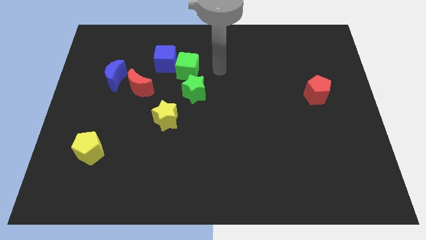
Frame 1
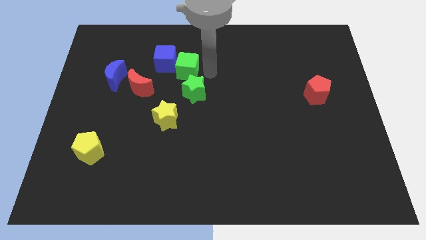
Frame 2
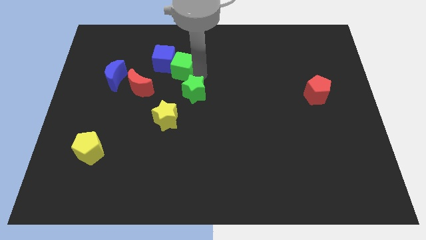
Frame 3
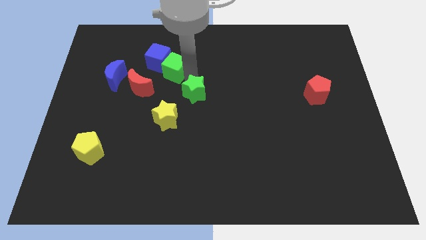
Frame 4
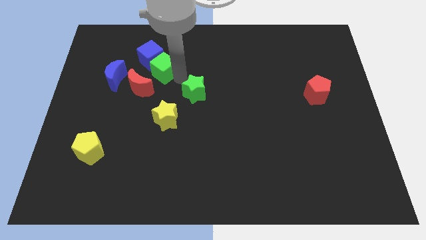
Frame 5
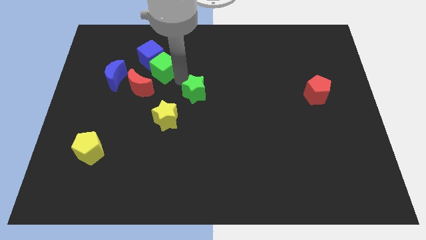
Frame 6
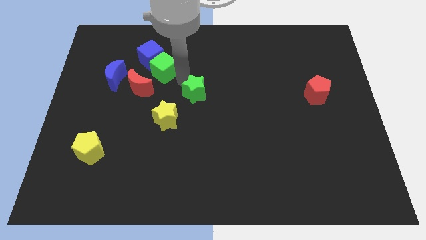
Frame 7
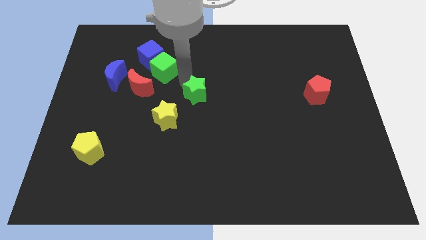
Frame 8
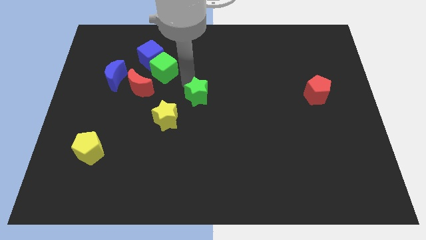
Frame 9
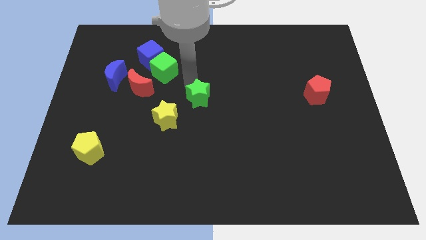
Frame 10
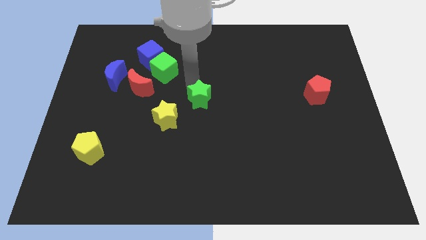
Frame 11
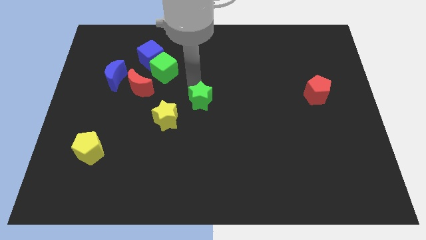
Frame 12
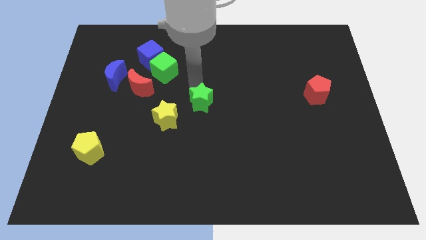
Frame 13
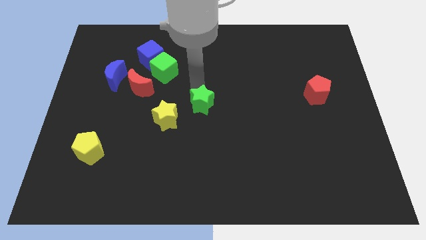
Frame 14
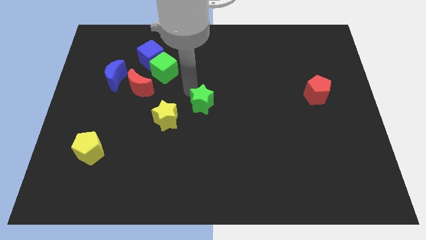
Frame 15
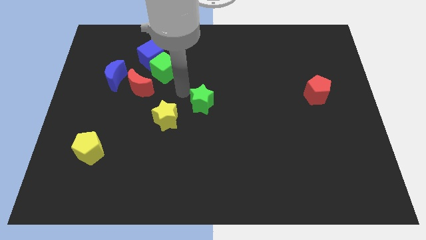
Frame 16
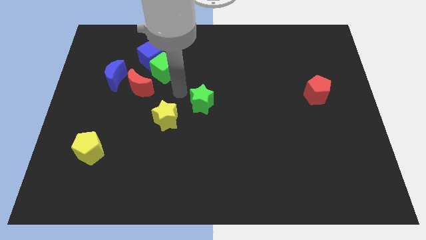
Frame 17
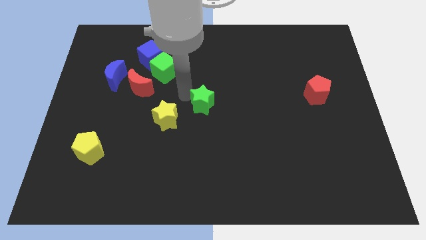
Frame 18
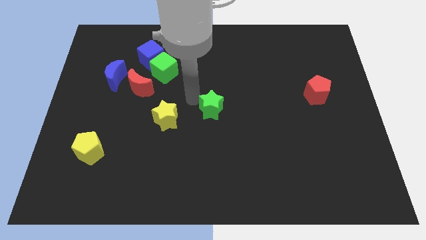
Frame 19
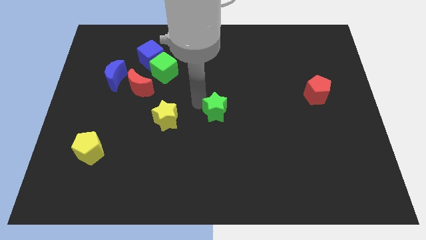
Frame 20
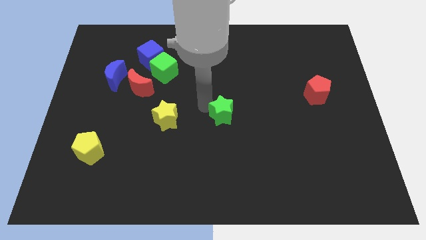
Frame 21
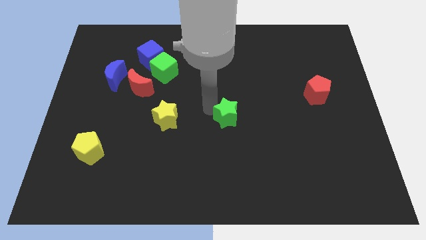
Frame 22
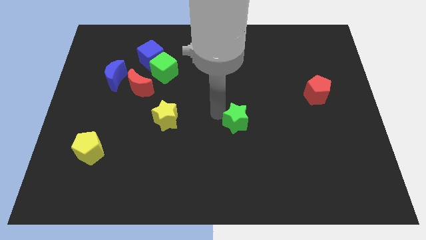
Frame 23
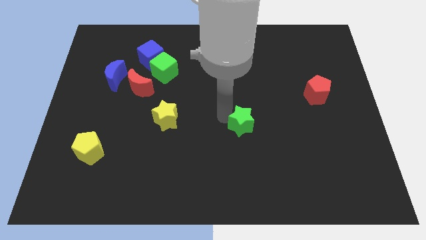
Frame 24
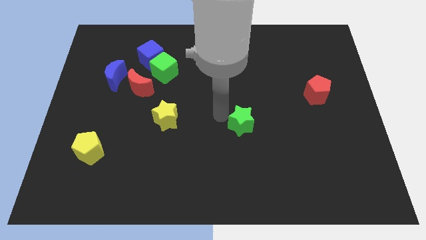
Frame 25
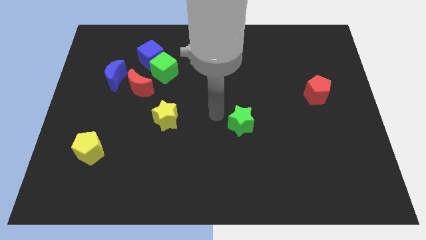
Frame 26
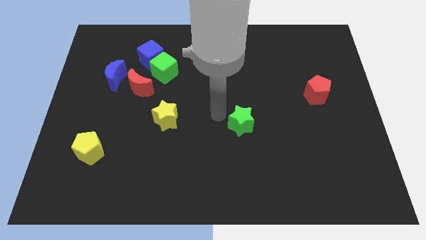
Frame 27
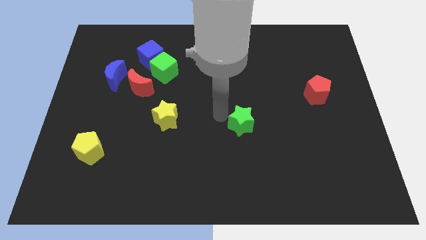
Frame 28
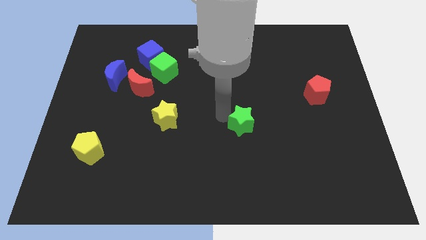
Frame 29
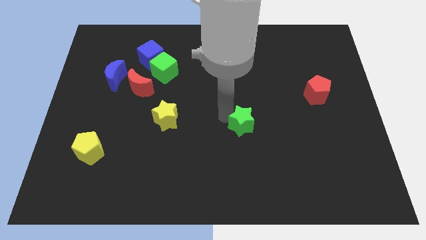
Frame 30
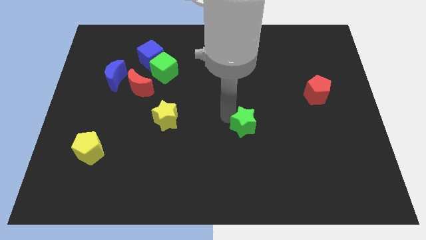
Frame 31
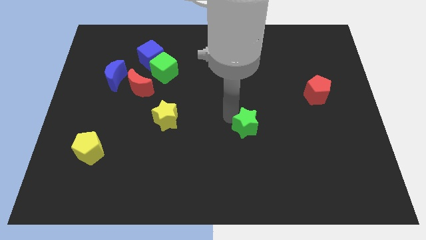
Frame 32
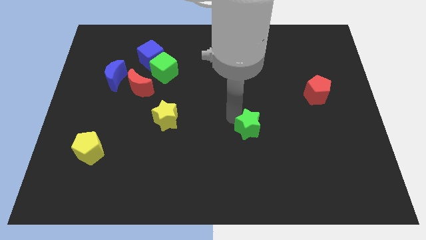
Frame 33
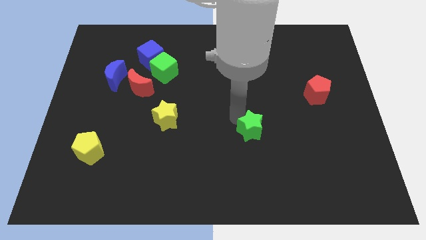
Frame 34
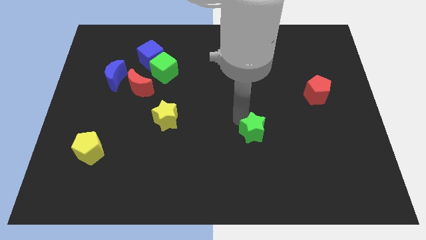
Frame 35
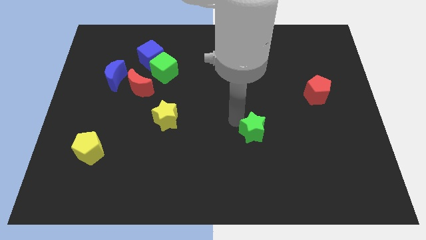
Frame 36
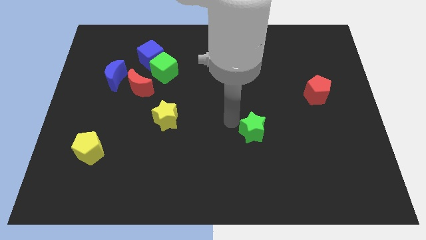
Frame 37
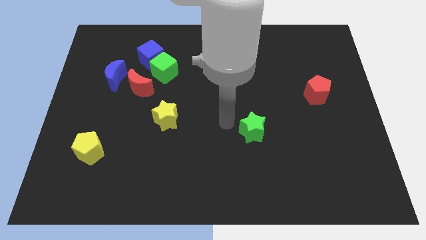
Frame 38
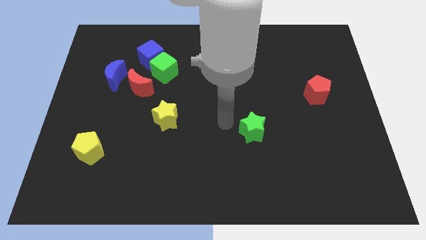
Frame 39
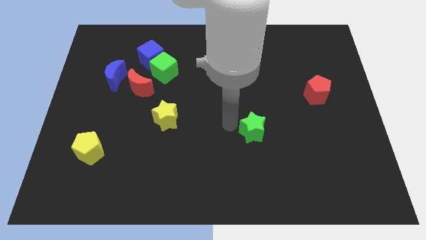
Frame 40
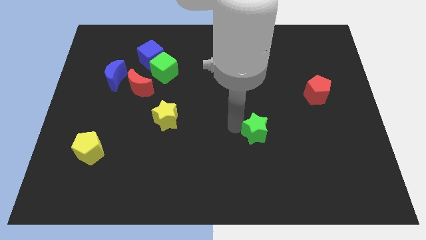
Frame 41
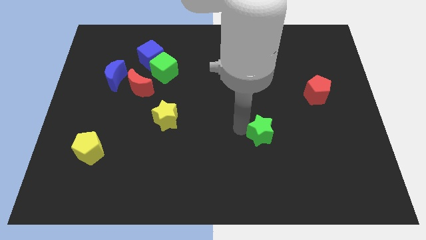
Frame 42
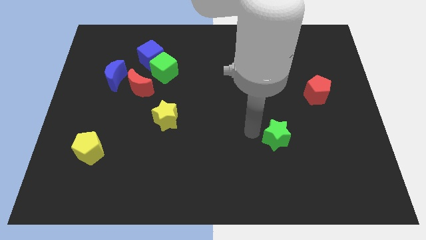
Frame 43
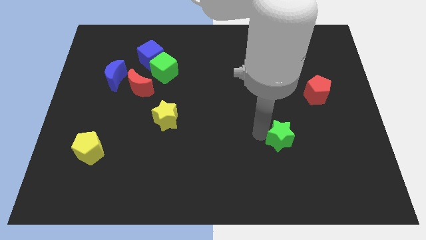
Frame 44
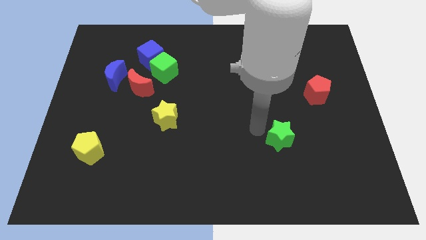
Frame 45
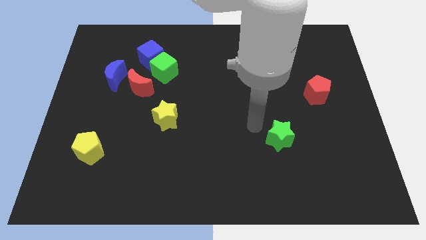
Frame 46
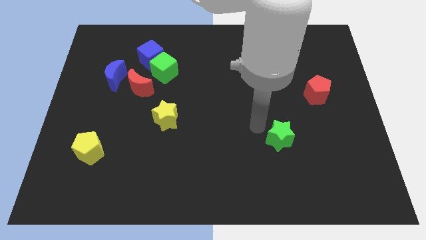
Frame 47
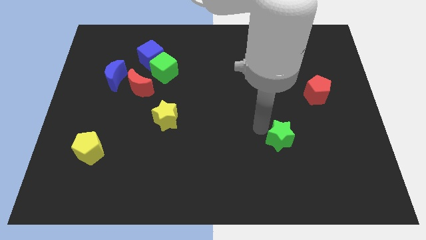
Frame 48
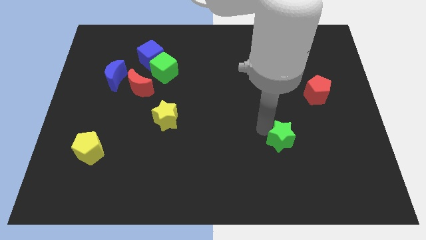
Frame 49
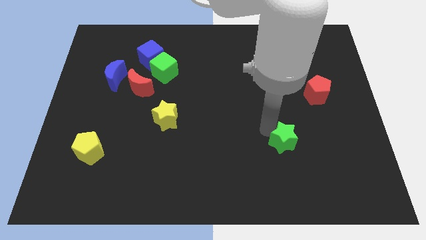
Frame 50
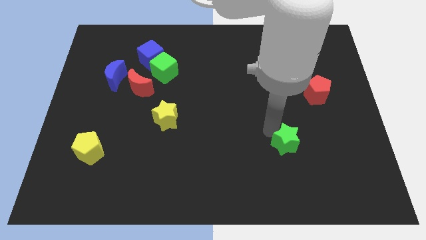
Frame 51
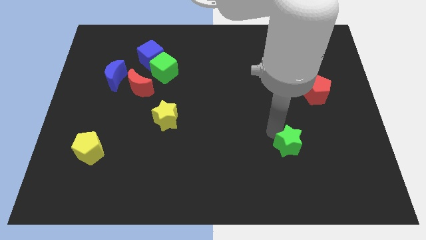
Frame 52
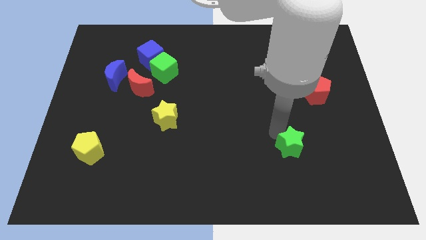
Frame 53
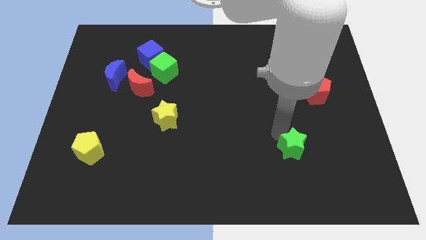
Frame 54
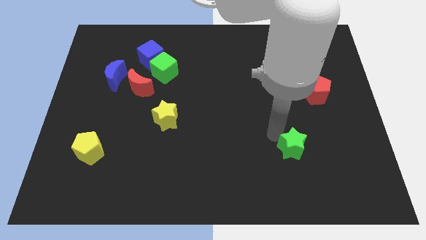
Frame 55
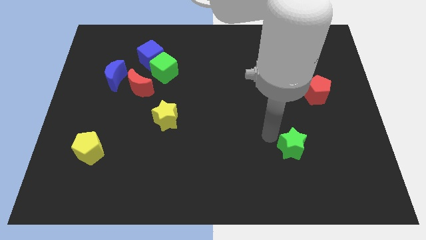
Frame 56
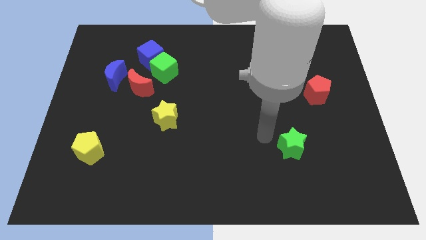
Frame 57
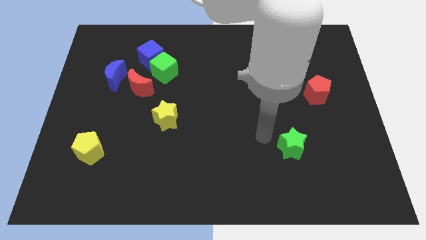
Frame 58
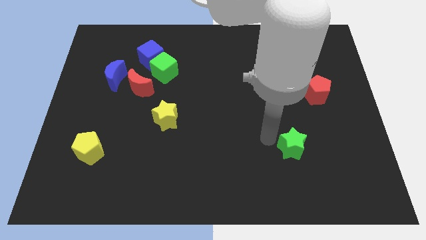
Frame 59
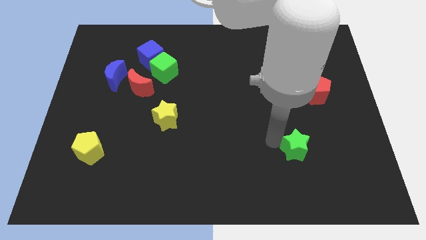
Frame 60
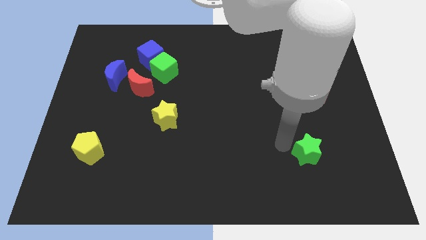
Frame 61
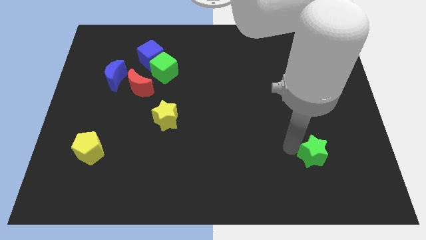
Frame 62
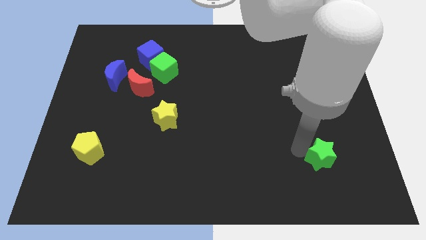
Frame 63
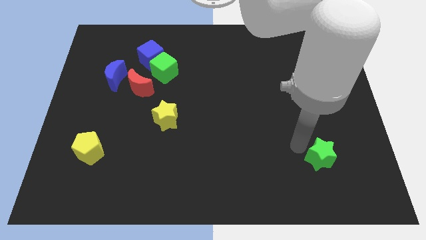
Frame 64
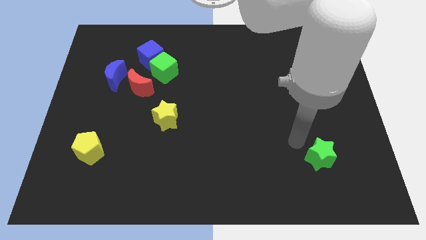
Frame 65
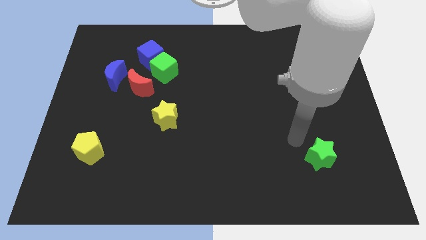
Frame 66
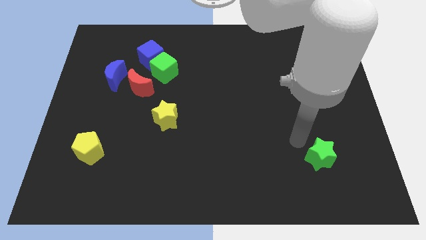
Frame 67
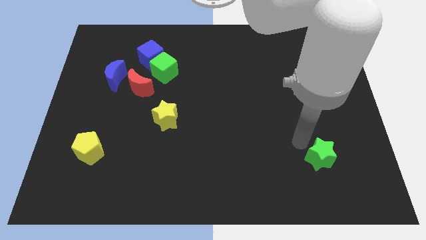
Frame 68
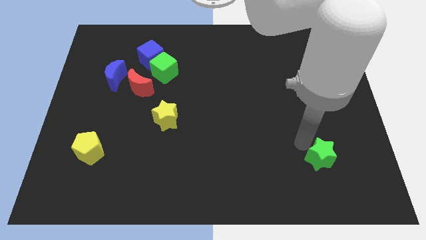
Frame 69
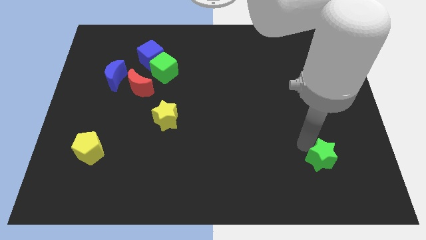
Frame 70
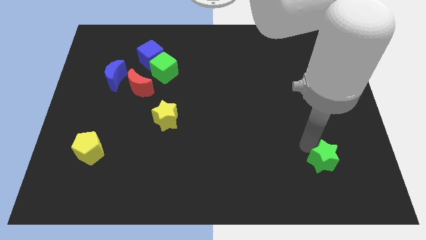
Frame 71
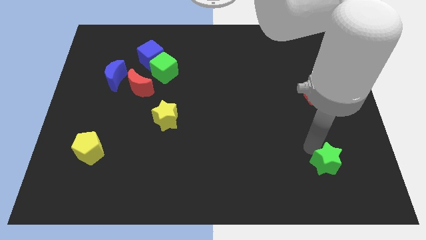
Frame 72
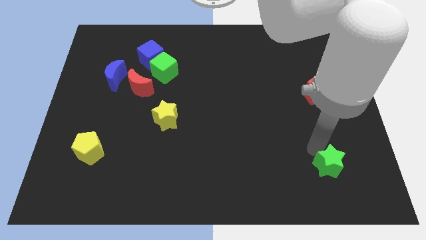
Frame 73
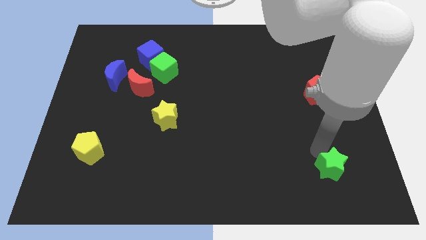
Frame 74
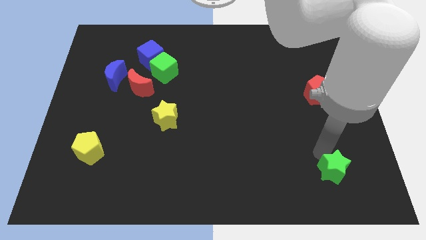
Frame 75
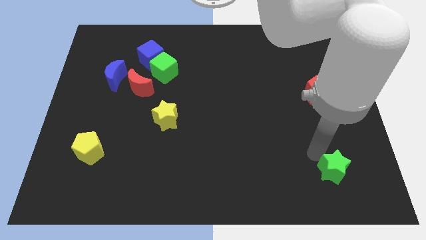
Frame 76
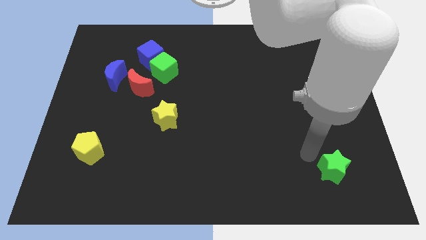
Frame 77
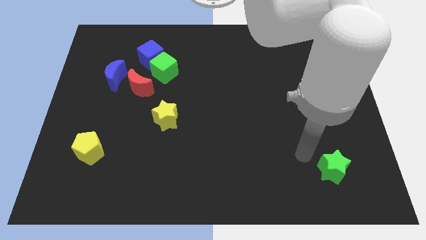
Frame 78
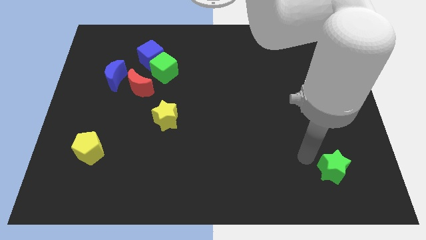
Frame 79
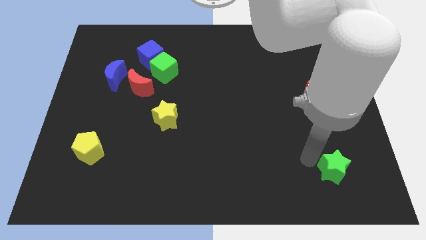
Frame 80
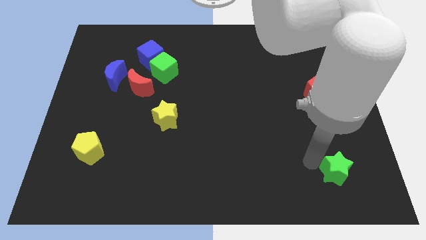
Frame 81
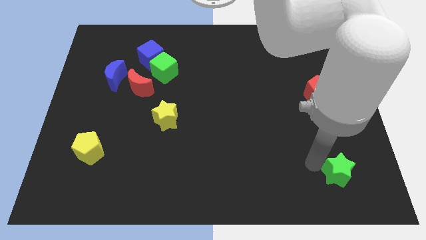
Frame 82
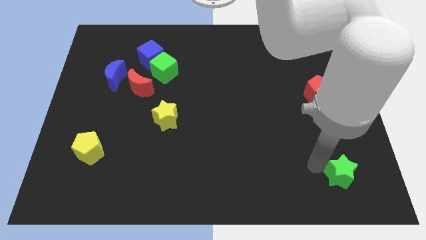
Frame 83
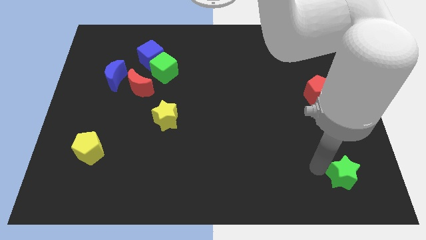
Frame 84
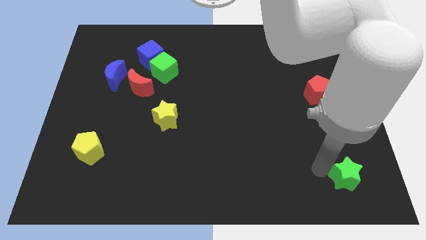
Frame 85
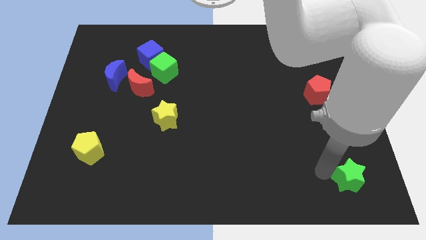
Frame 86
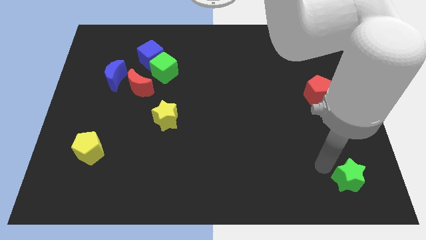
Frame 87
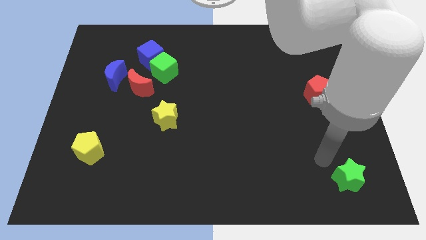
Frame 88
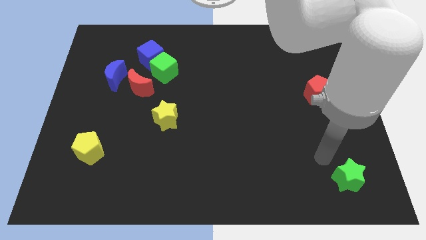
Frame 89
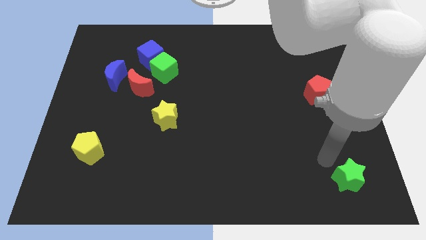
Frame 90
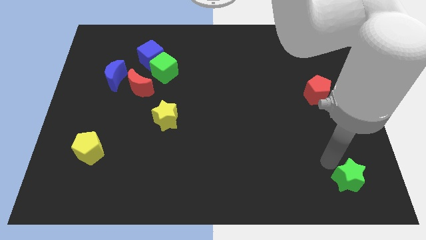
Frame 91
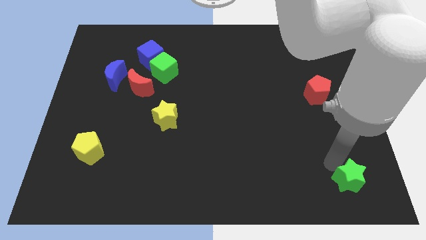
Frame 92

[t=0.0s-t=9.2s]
slide the green star to the bottom right corner
